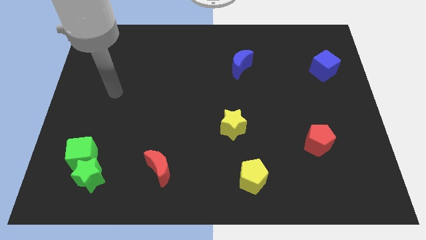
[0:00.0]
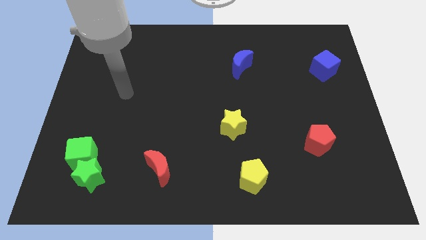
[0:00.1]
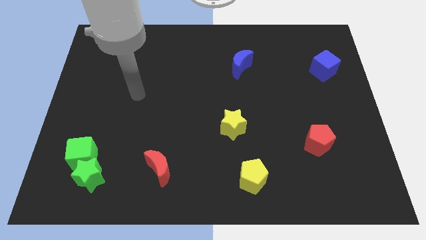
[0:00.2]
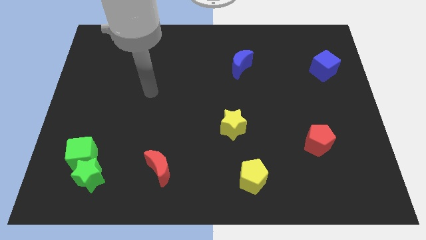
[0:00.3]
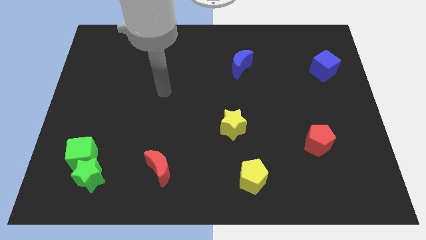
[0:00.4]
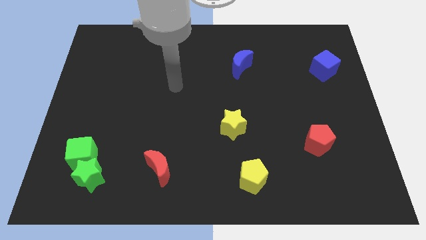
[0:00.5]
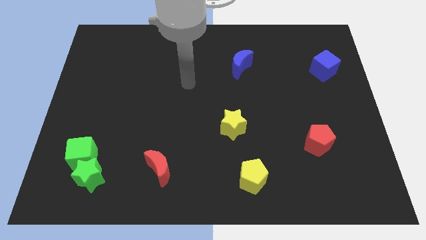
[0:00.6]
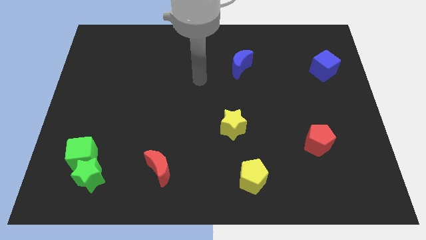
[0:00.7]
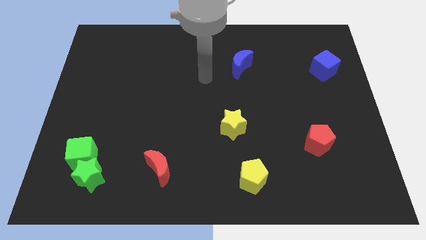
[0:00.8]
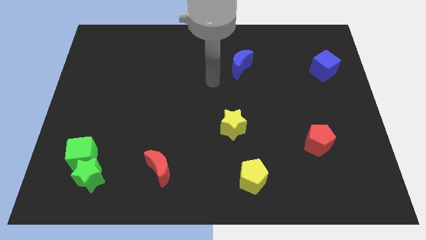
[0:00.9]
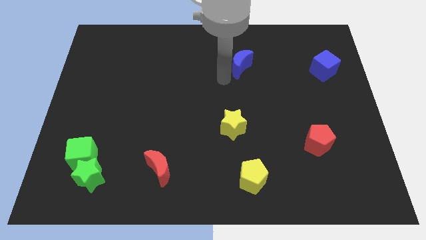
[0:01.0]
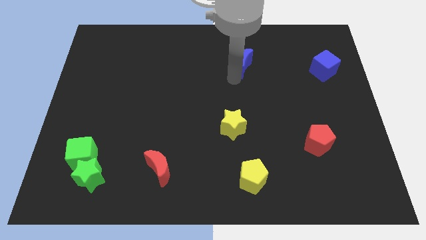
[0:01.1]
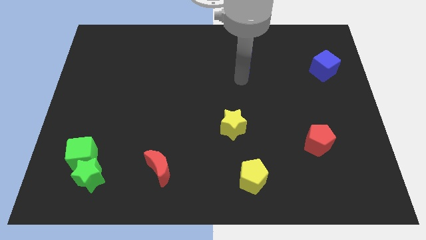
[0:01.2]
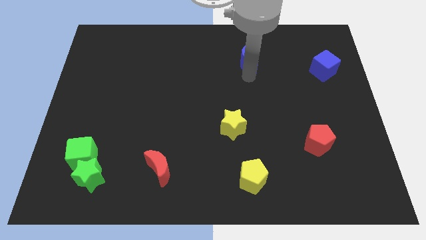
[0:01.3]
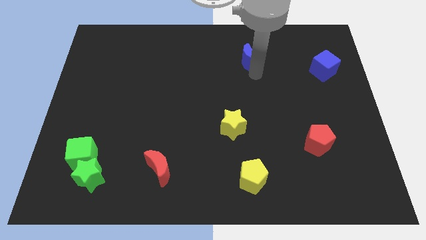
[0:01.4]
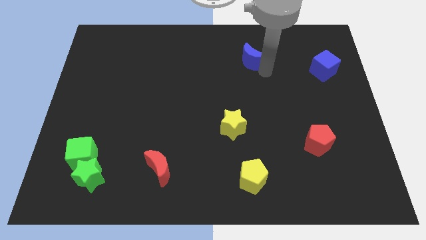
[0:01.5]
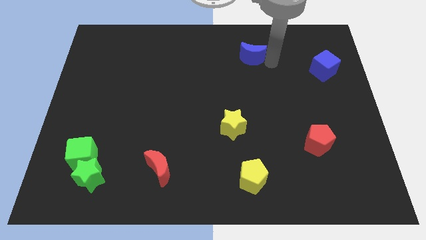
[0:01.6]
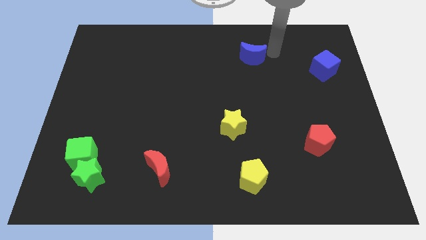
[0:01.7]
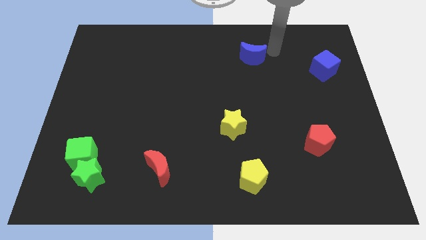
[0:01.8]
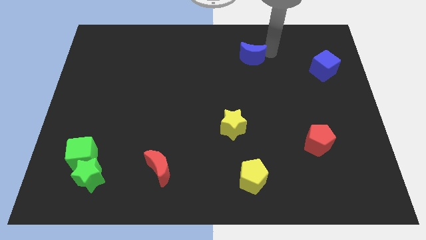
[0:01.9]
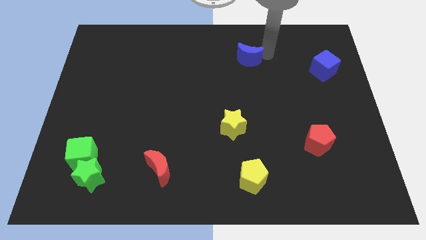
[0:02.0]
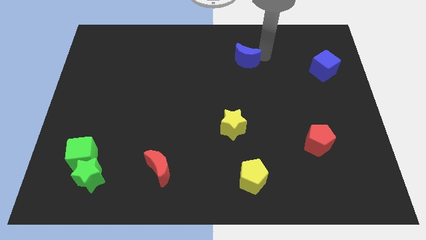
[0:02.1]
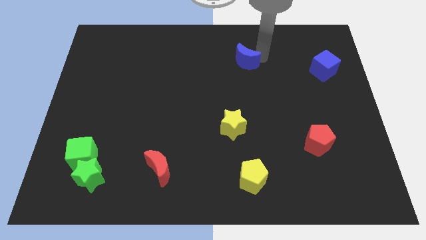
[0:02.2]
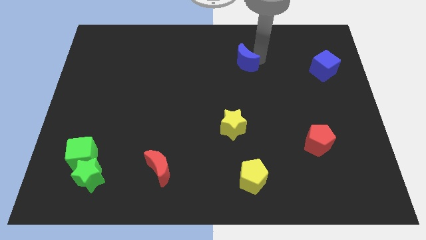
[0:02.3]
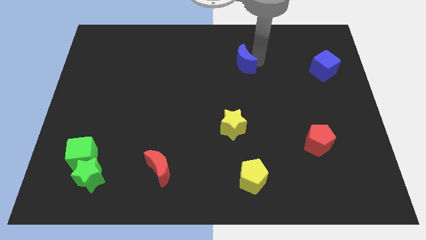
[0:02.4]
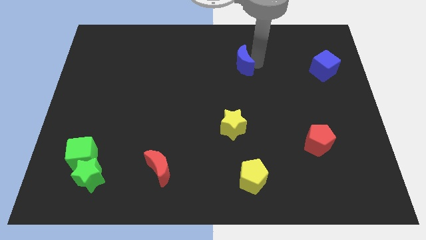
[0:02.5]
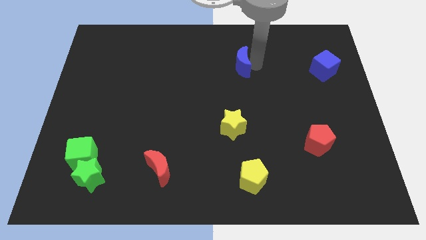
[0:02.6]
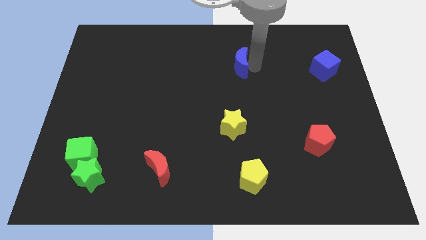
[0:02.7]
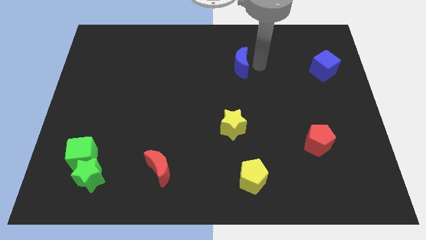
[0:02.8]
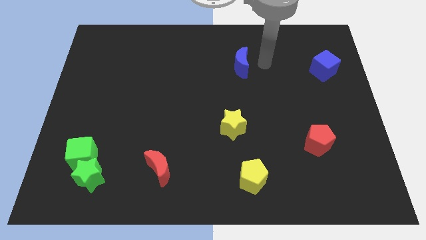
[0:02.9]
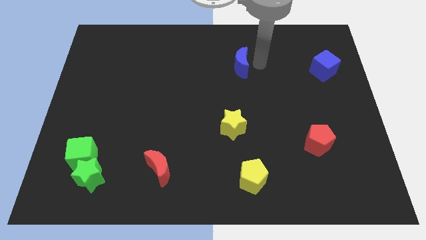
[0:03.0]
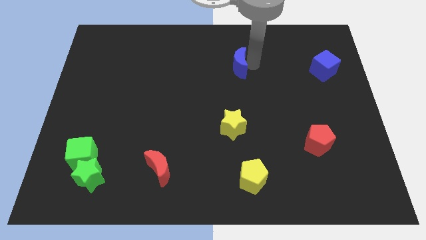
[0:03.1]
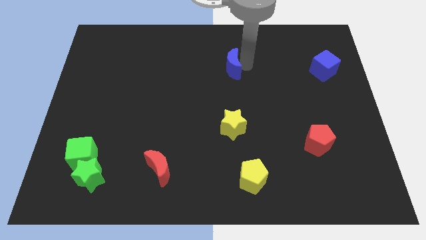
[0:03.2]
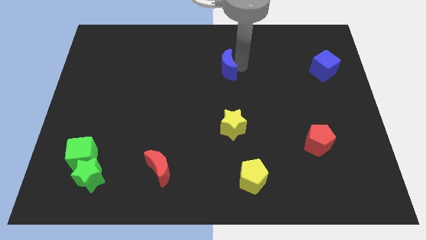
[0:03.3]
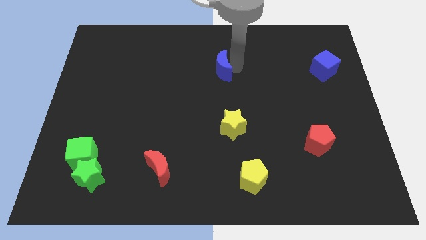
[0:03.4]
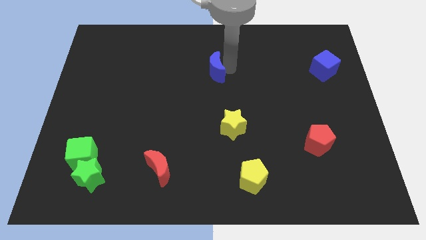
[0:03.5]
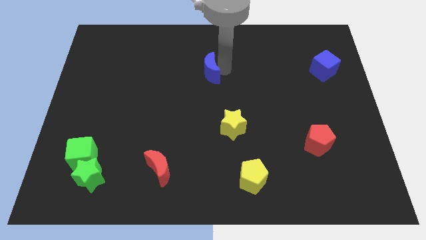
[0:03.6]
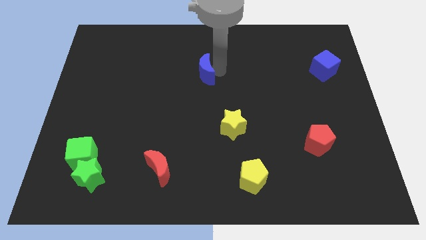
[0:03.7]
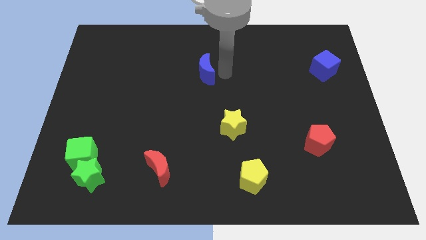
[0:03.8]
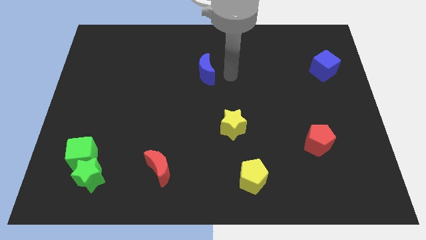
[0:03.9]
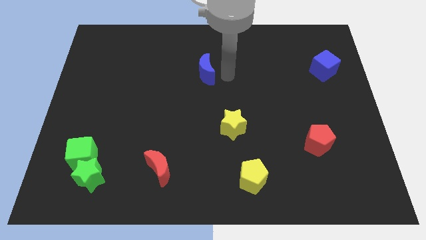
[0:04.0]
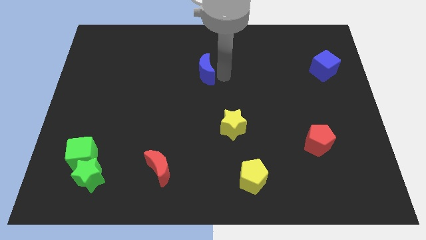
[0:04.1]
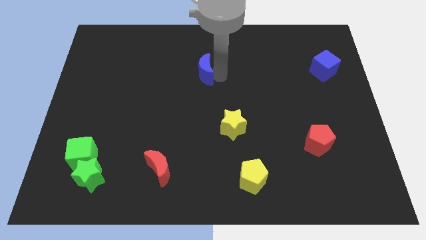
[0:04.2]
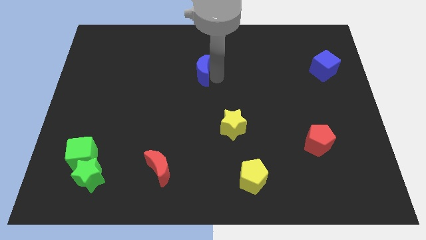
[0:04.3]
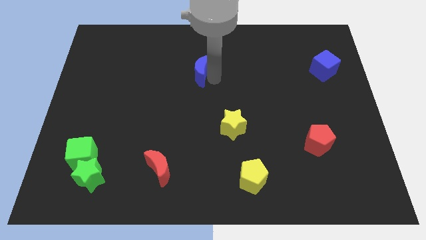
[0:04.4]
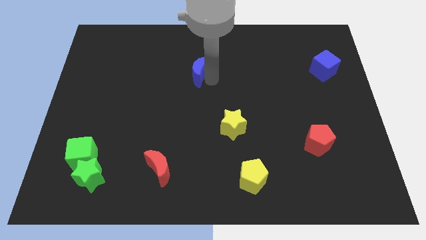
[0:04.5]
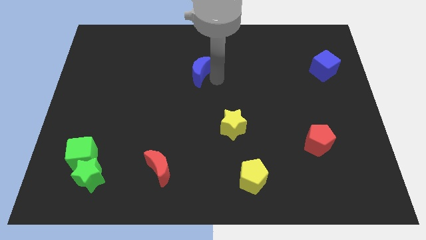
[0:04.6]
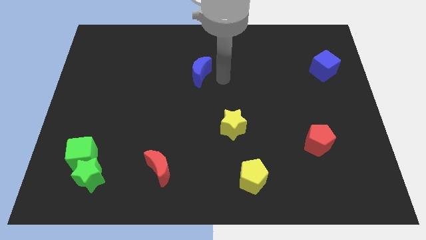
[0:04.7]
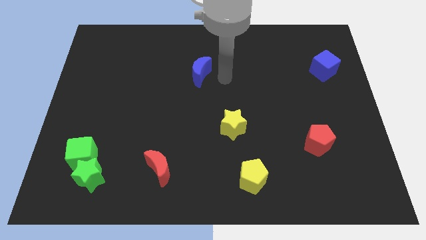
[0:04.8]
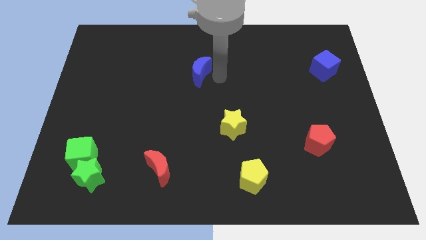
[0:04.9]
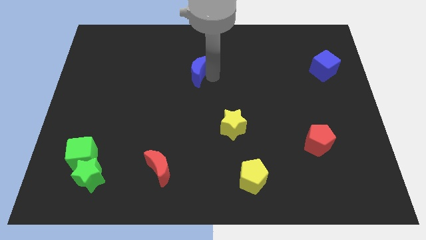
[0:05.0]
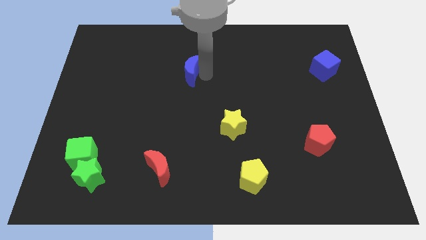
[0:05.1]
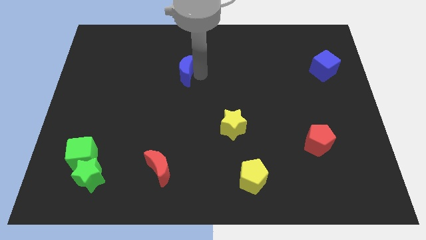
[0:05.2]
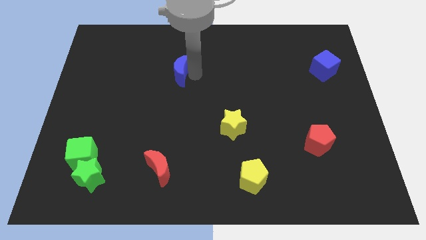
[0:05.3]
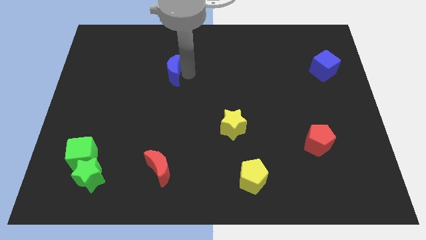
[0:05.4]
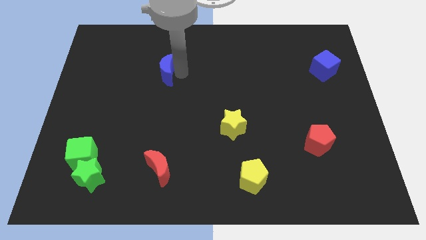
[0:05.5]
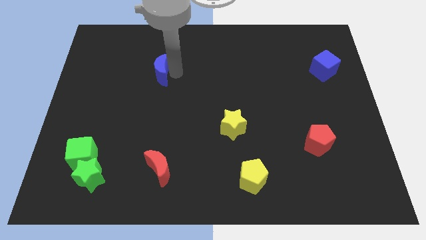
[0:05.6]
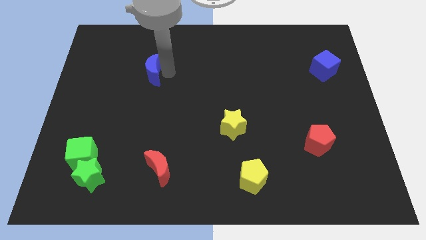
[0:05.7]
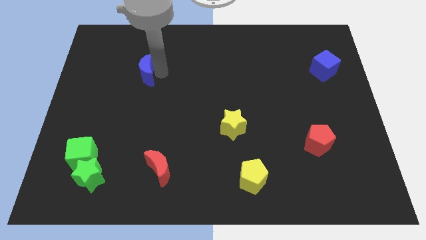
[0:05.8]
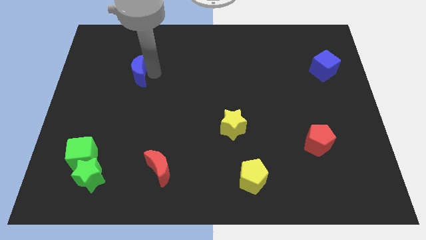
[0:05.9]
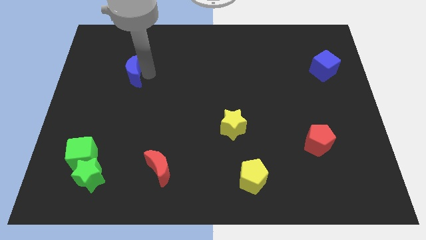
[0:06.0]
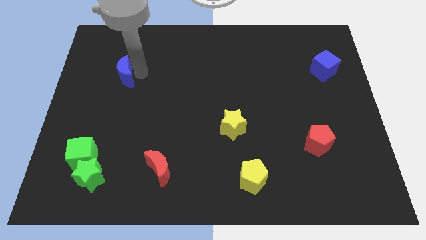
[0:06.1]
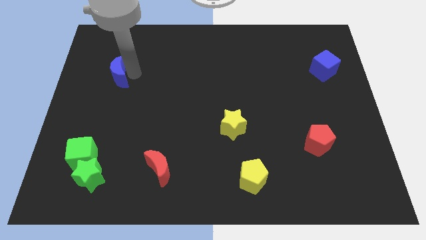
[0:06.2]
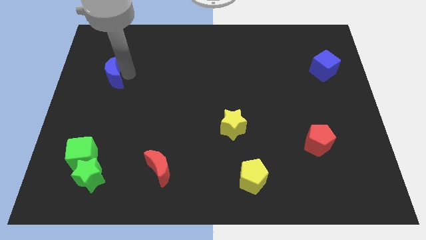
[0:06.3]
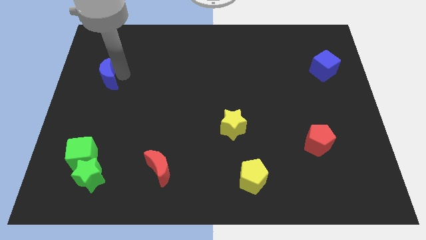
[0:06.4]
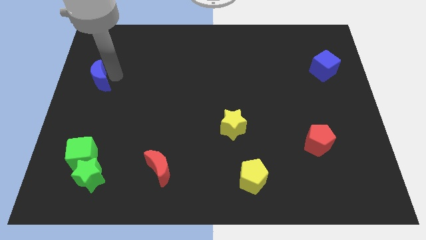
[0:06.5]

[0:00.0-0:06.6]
move the blue moon to the center left
